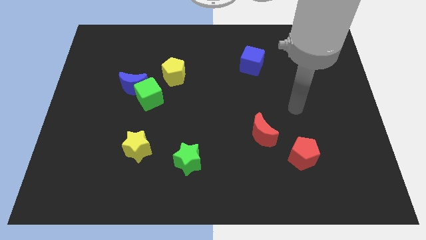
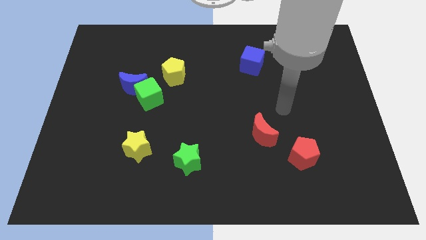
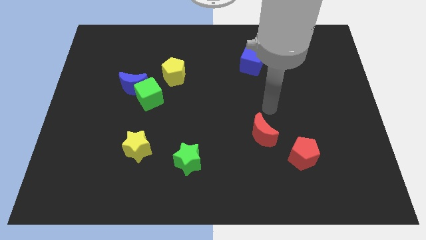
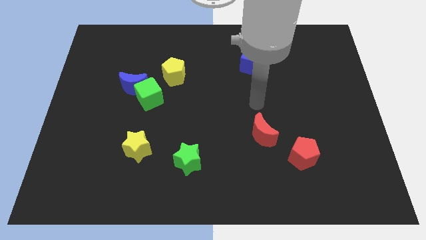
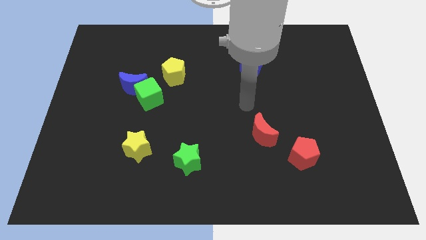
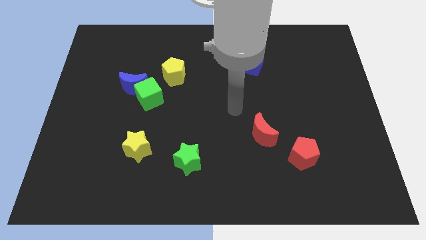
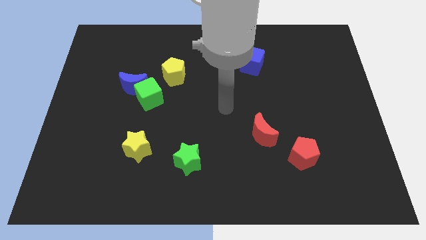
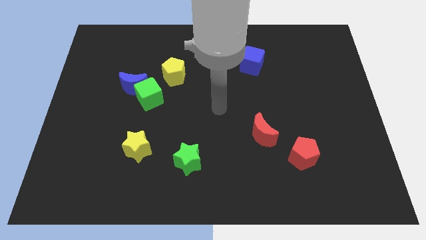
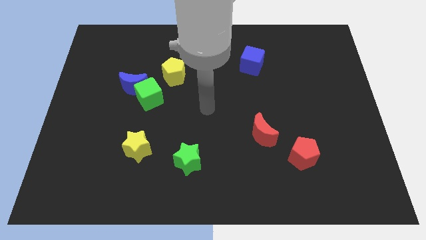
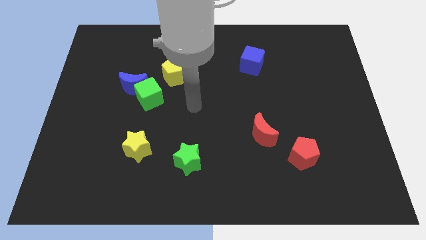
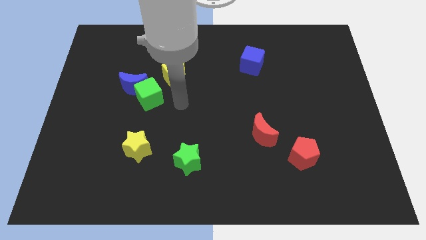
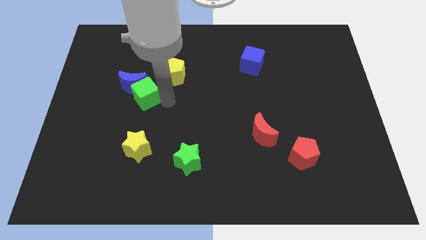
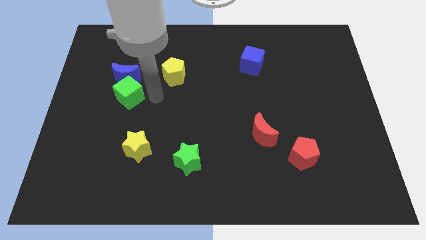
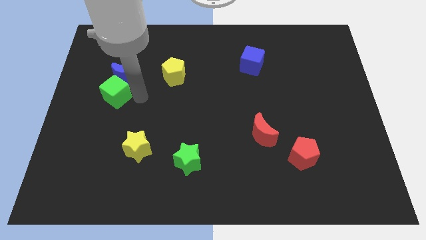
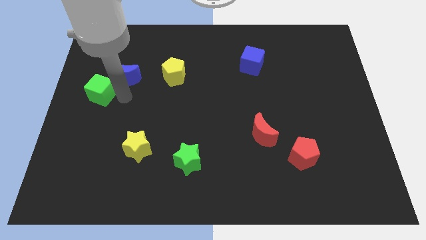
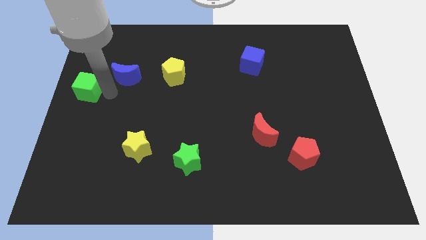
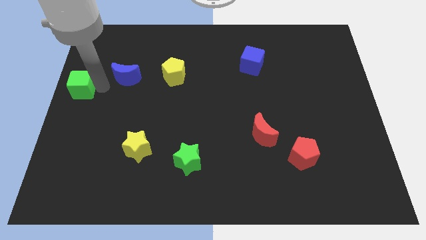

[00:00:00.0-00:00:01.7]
separate the blue moon from the green cube

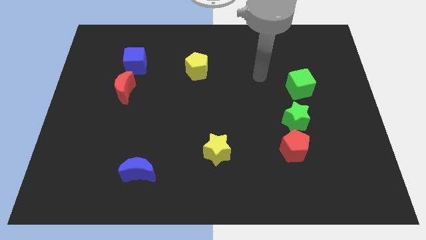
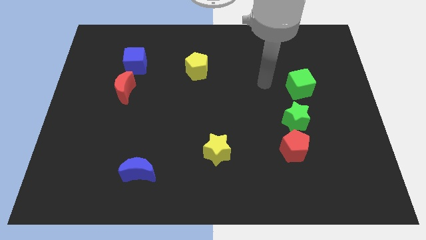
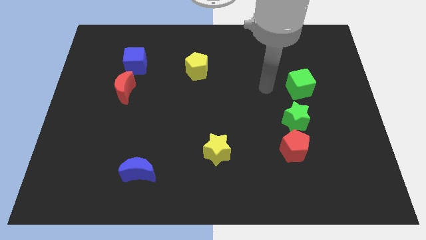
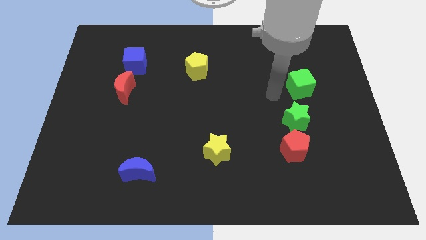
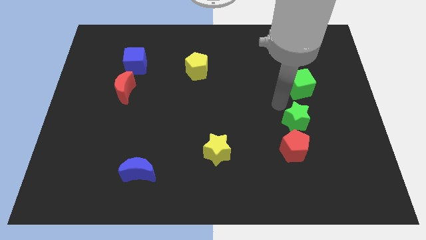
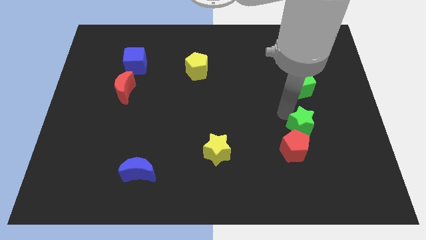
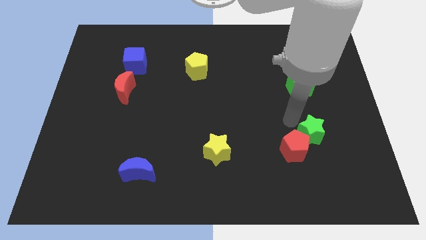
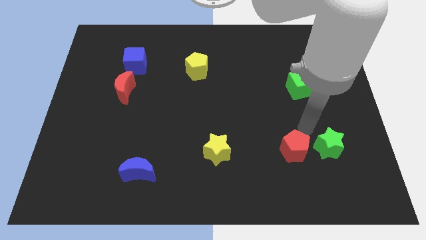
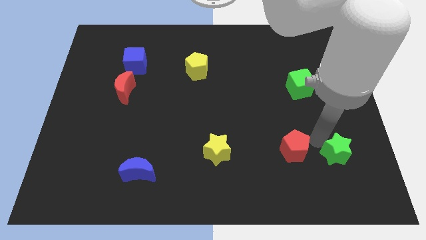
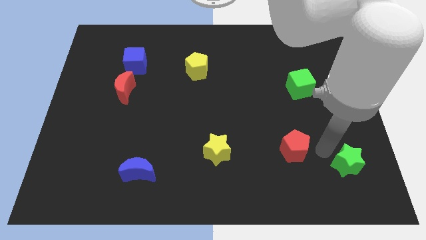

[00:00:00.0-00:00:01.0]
separate the red pentagon from the green star

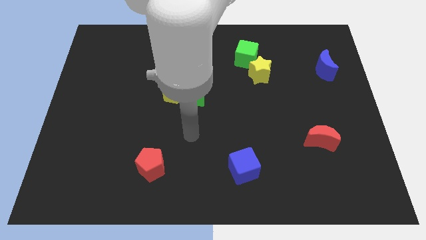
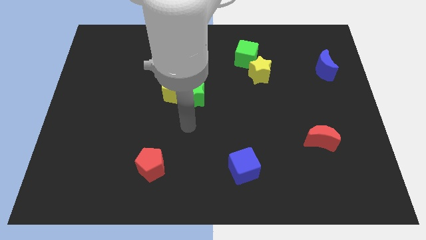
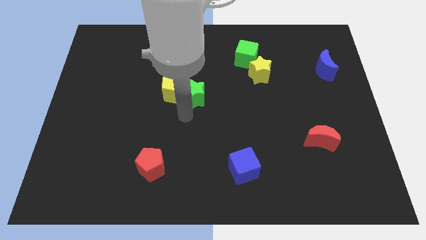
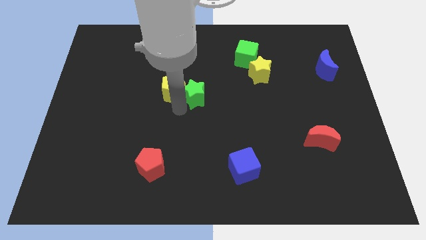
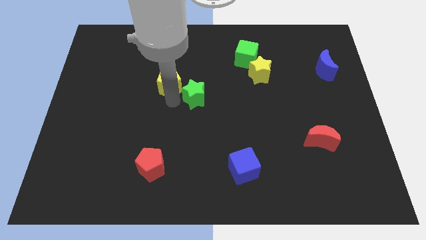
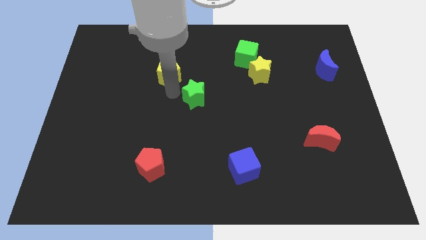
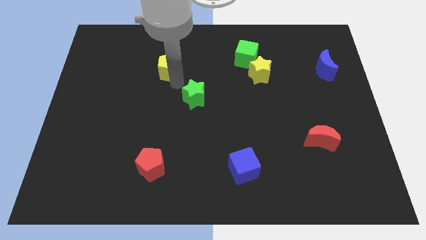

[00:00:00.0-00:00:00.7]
separate the green star from the yellow pentagon

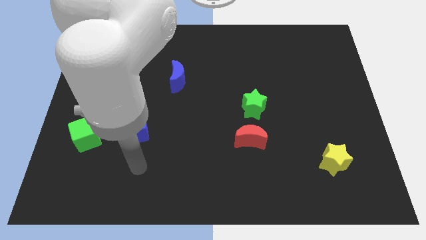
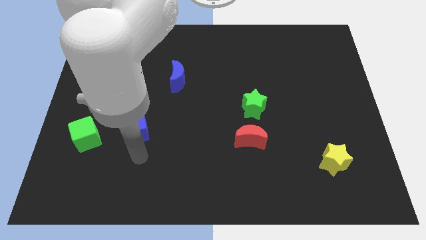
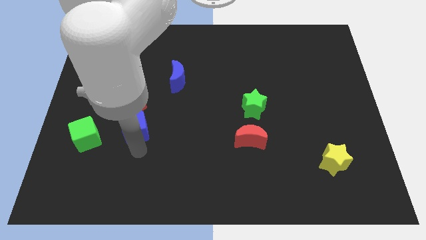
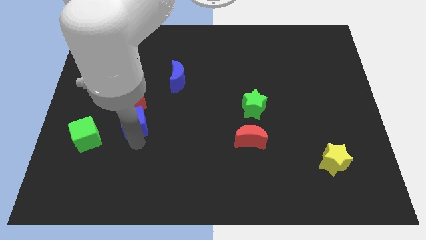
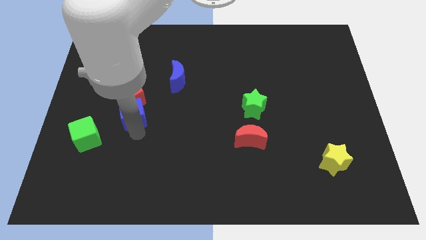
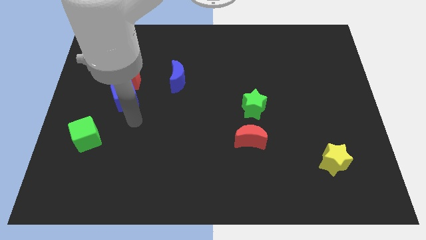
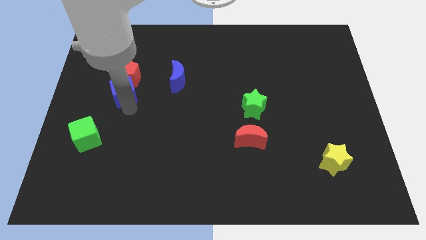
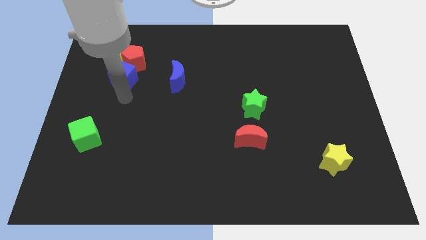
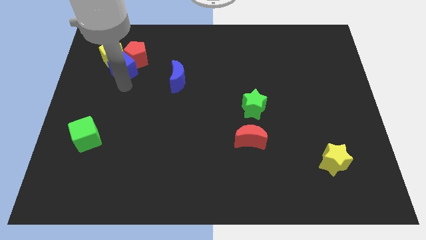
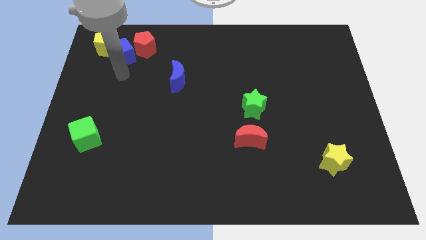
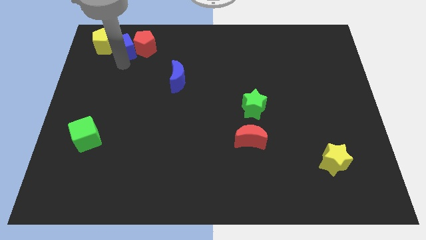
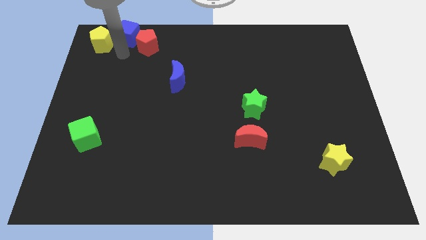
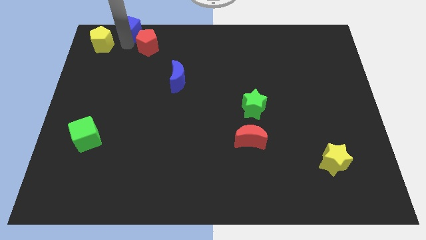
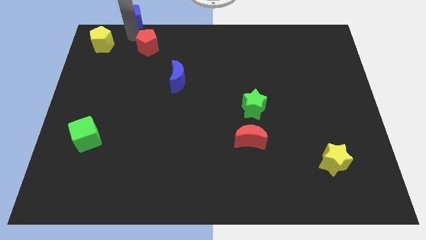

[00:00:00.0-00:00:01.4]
move the red pentagon away from the blue cube

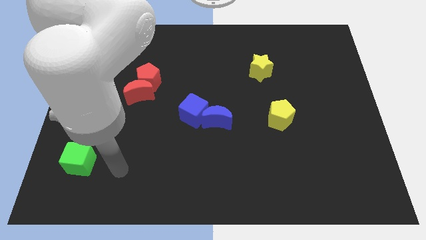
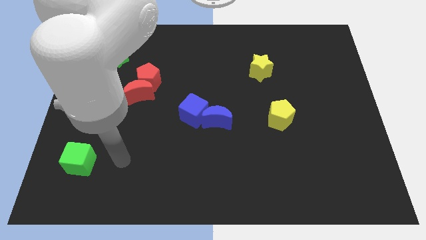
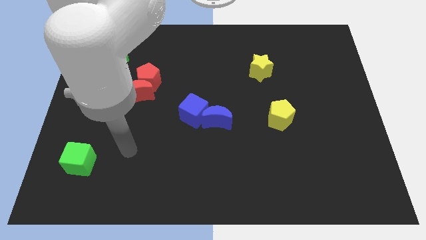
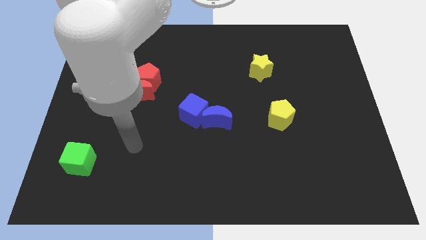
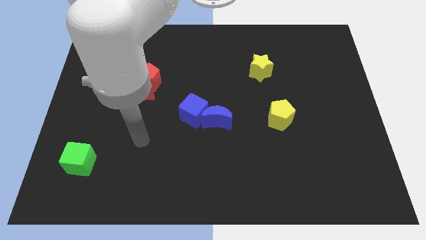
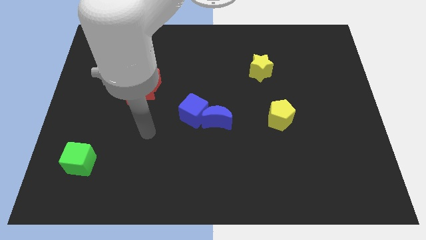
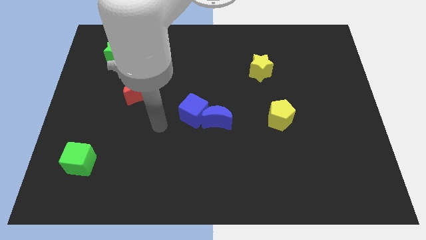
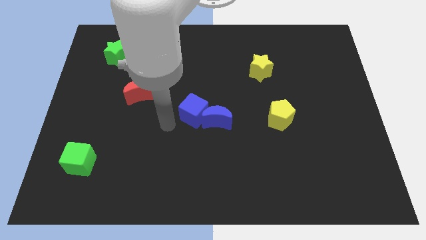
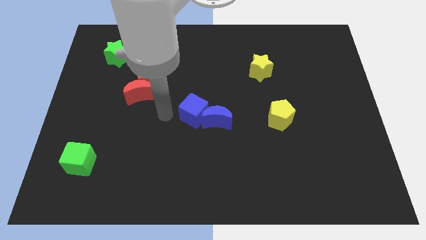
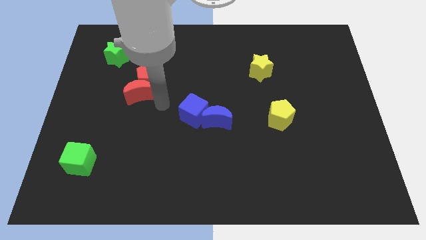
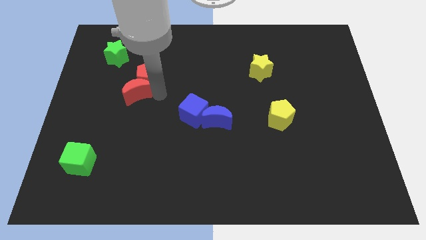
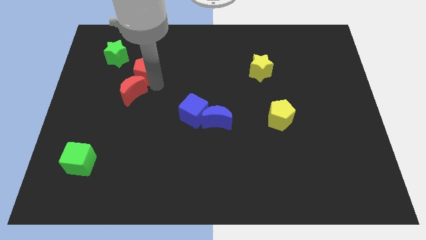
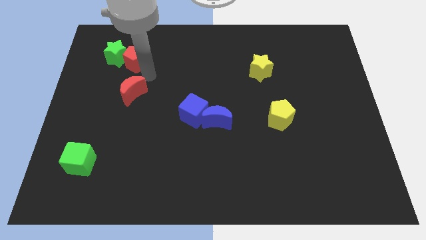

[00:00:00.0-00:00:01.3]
separate the red moon from the red pentagon

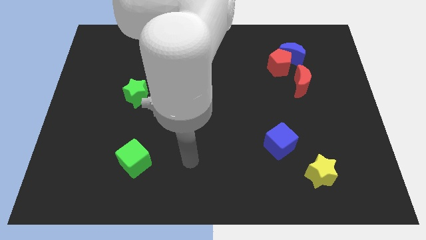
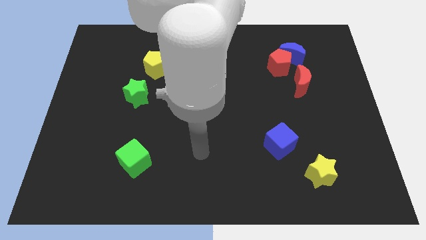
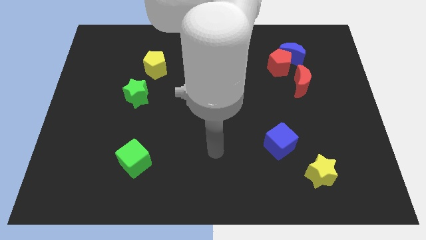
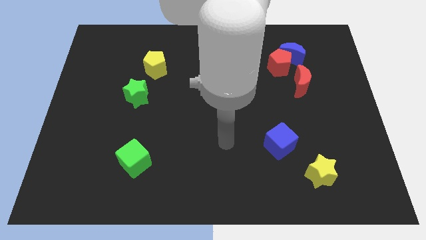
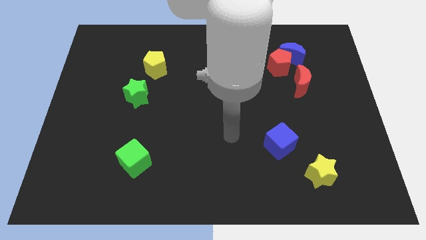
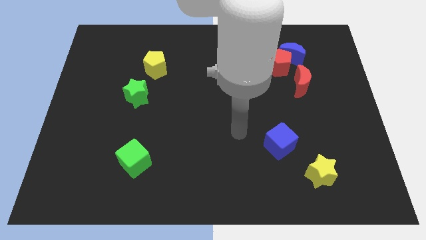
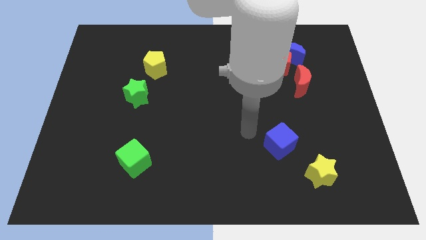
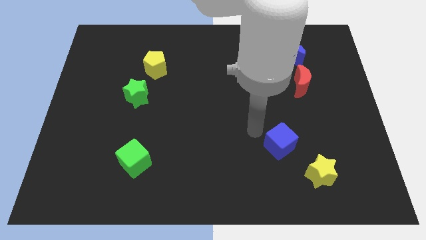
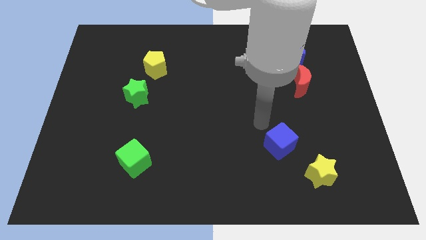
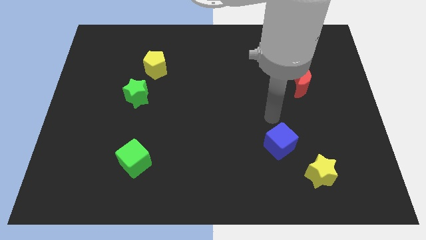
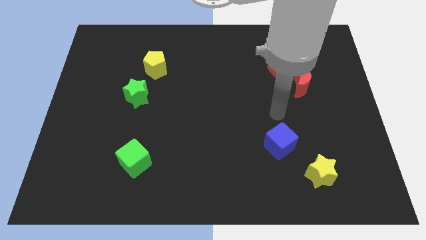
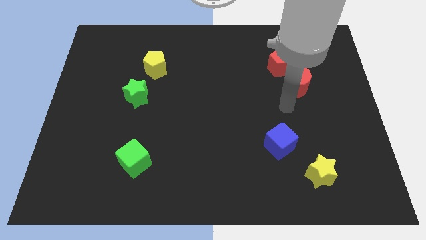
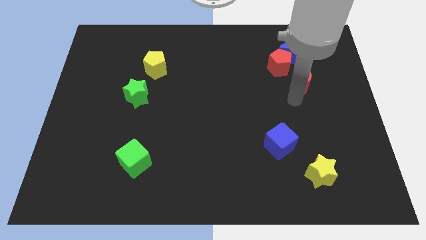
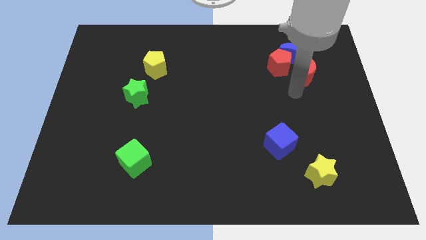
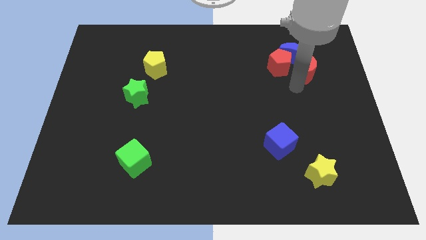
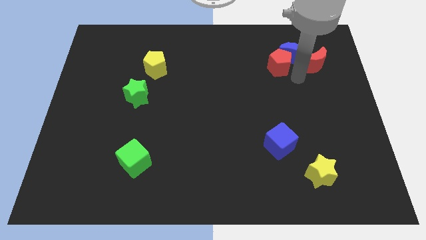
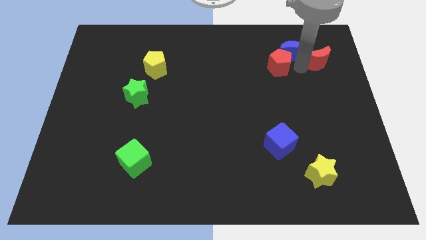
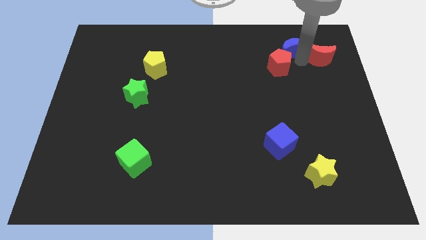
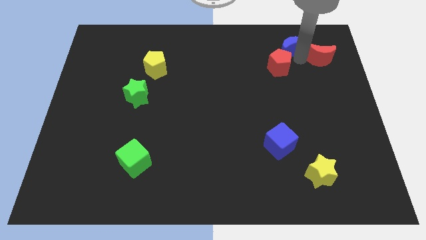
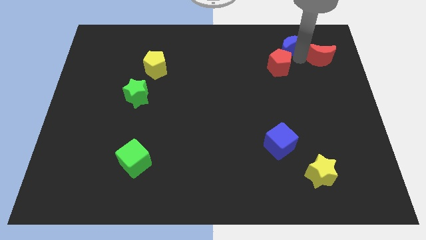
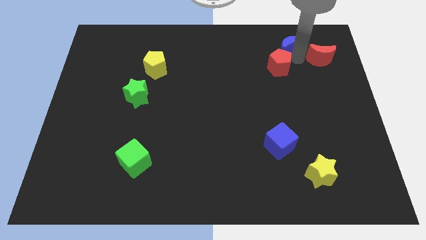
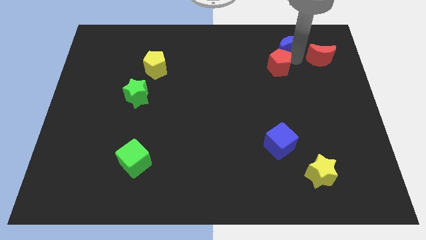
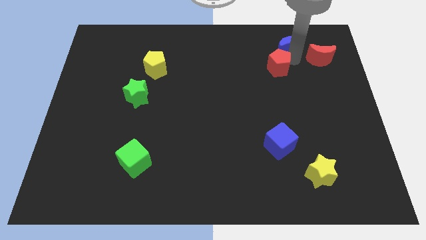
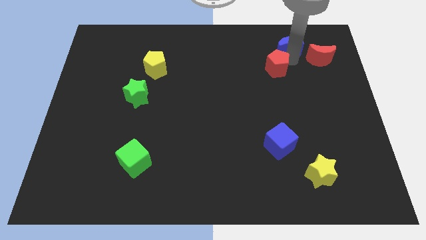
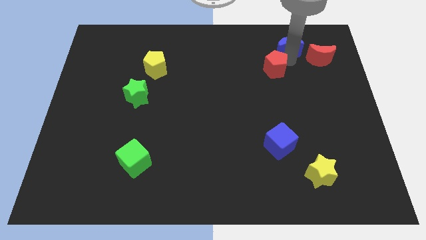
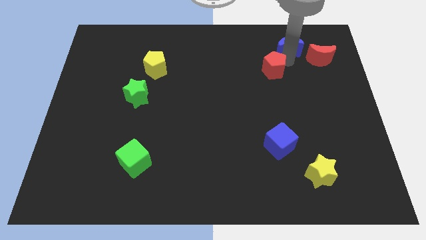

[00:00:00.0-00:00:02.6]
pull the red pentagon apart from the blue moon and red moon

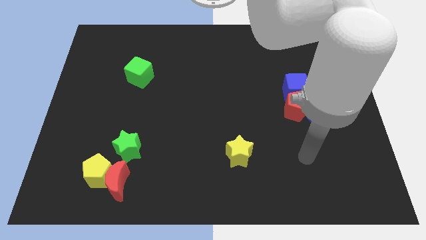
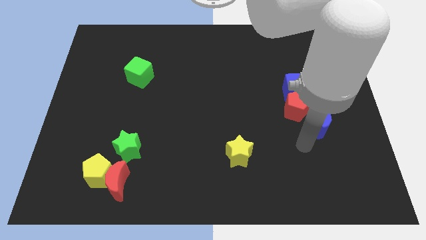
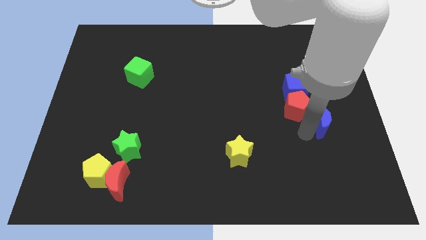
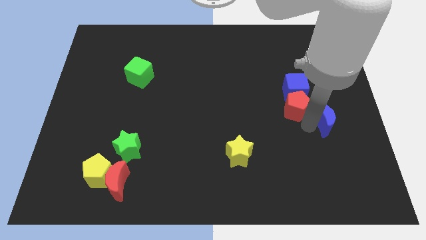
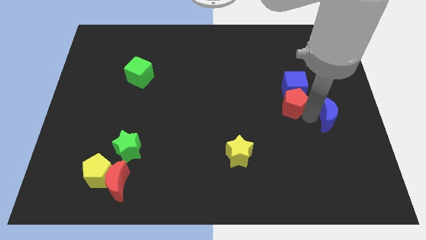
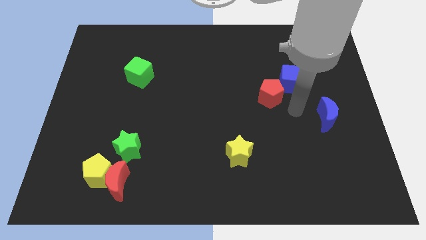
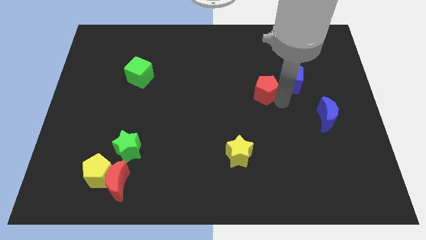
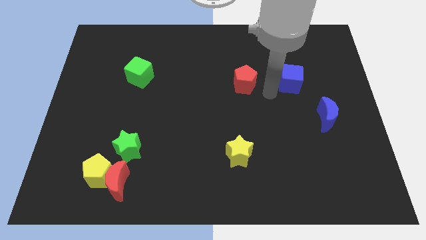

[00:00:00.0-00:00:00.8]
pull the blue cube apart from the red pentagon
